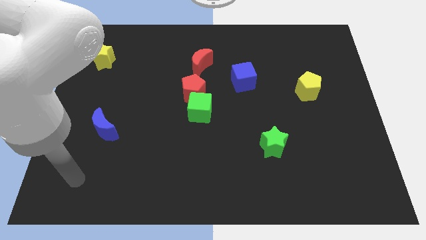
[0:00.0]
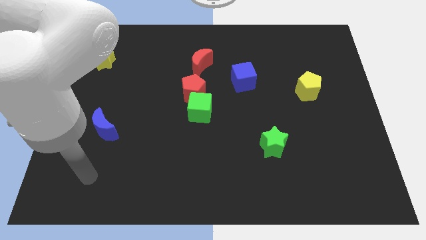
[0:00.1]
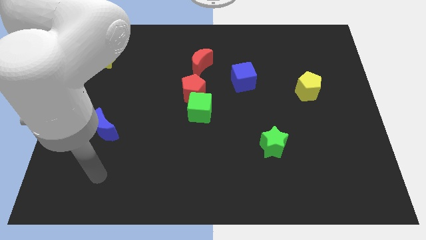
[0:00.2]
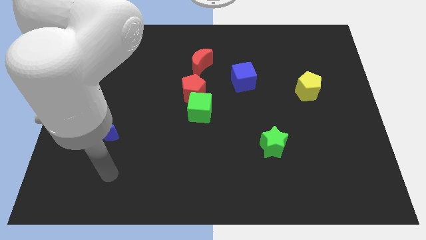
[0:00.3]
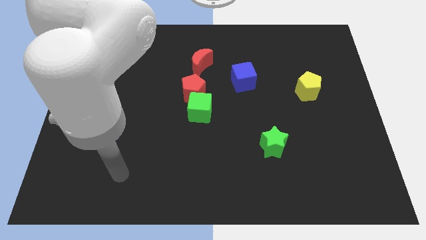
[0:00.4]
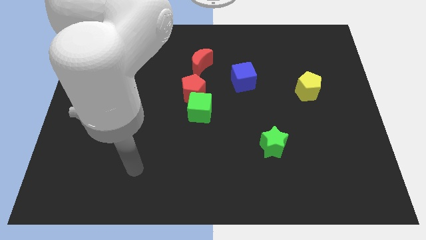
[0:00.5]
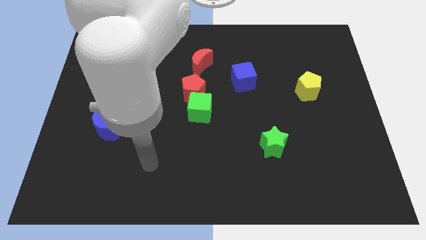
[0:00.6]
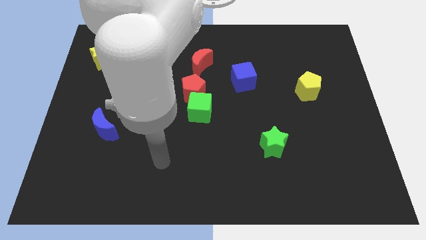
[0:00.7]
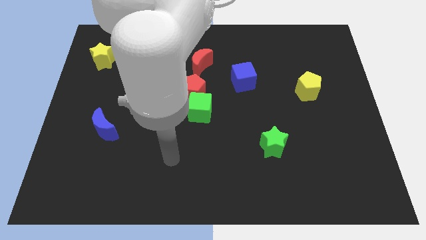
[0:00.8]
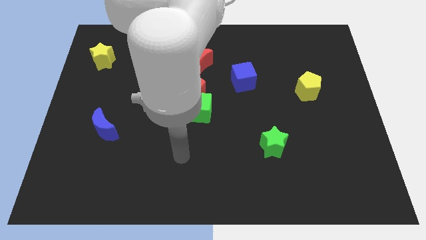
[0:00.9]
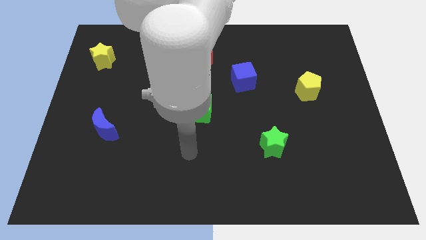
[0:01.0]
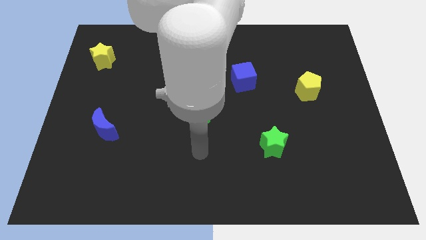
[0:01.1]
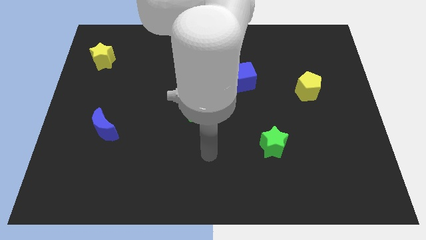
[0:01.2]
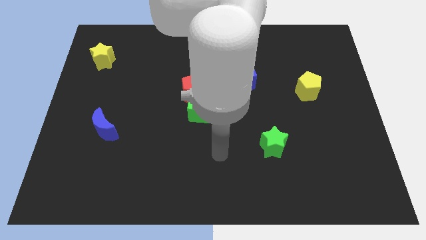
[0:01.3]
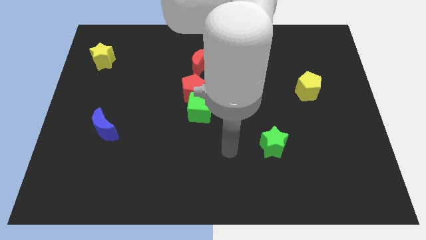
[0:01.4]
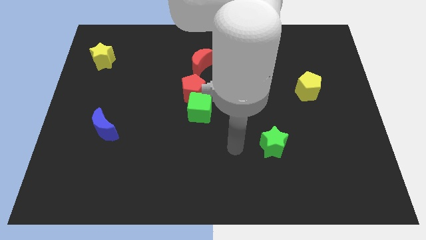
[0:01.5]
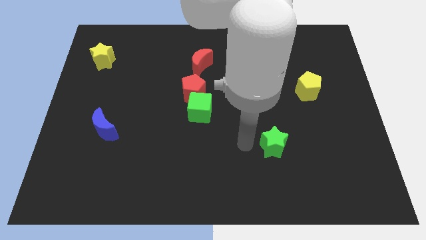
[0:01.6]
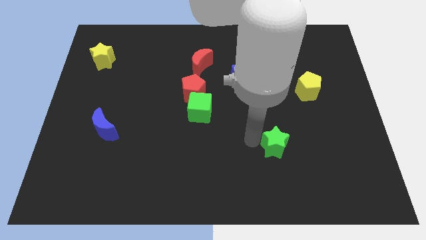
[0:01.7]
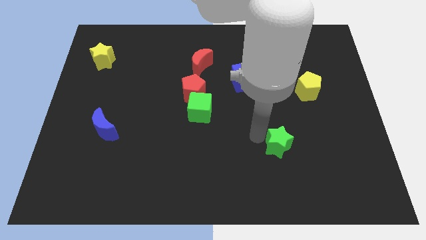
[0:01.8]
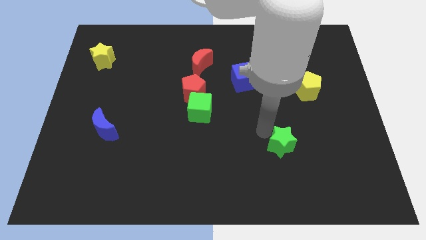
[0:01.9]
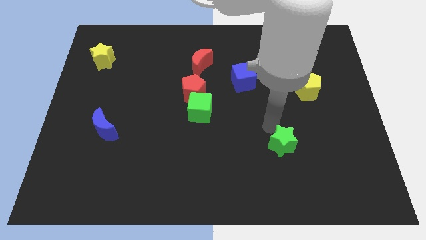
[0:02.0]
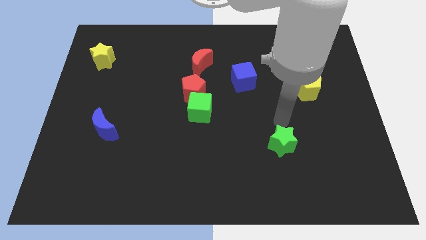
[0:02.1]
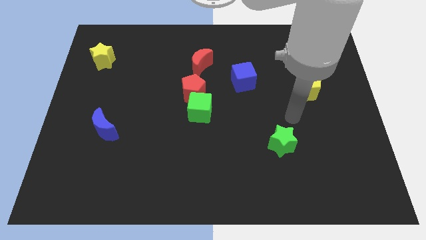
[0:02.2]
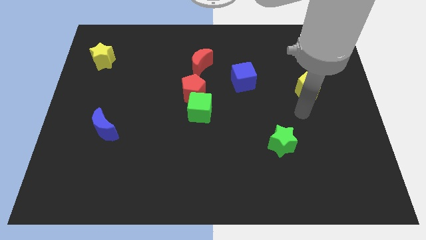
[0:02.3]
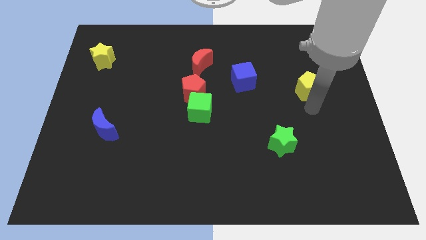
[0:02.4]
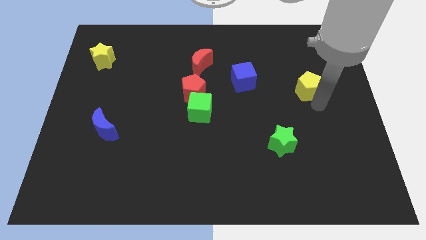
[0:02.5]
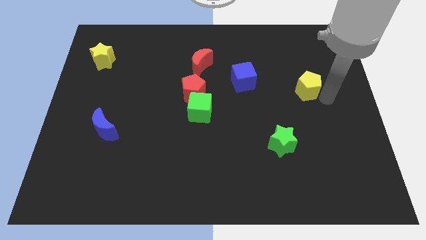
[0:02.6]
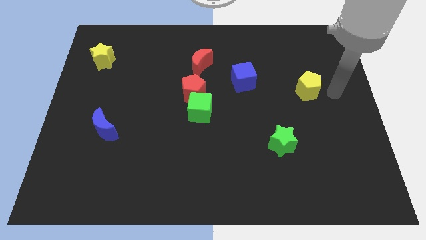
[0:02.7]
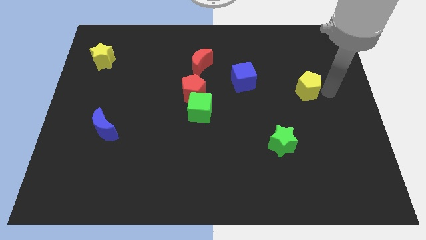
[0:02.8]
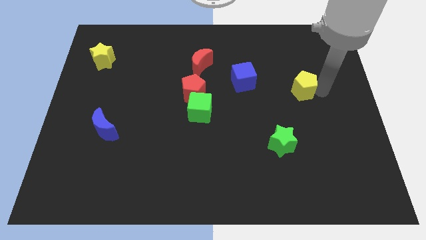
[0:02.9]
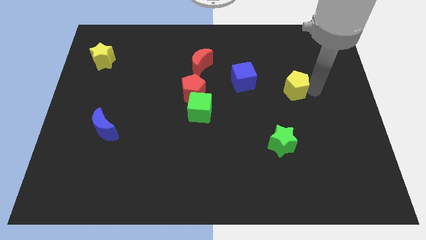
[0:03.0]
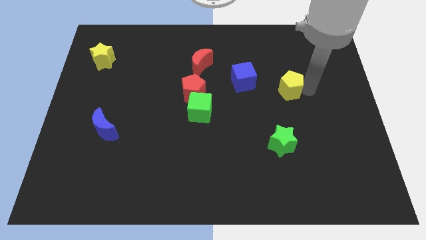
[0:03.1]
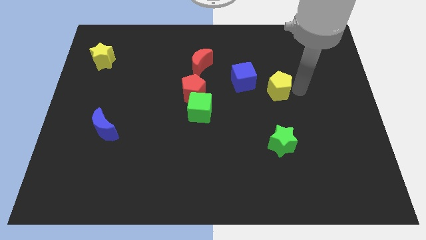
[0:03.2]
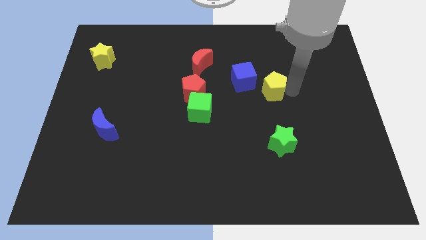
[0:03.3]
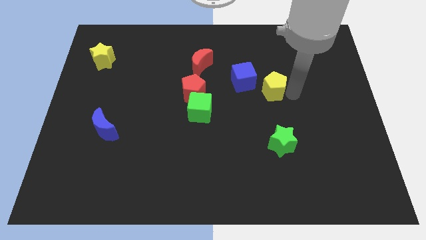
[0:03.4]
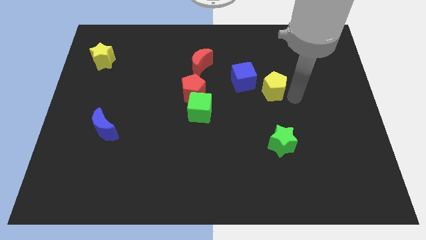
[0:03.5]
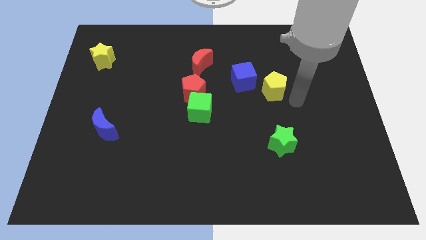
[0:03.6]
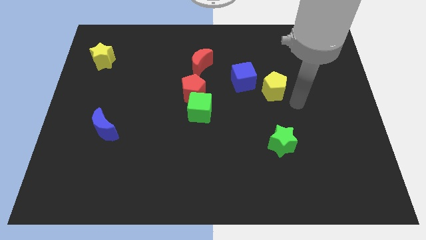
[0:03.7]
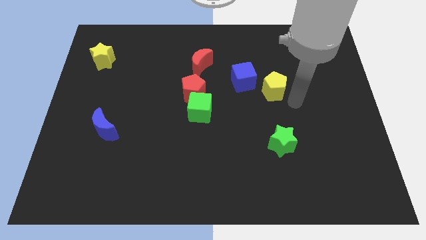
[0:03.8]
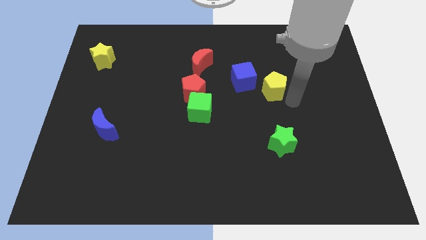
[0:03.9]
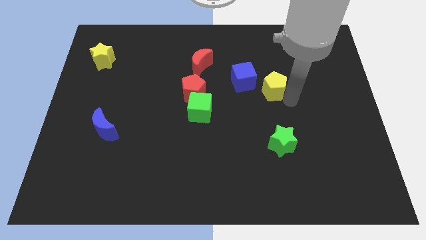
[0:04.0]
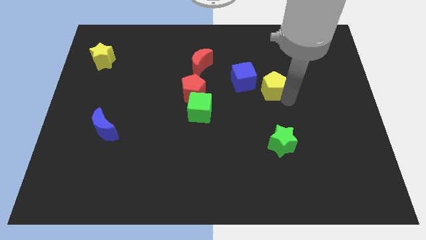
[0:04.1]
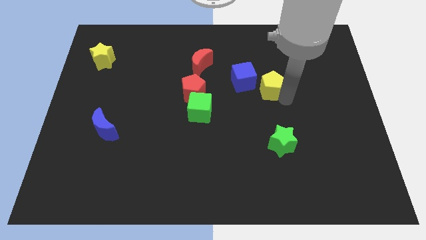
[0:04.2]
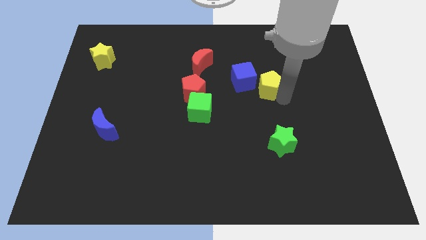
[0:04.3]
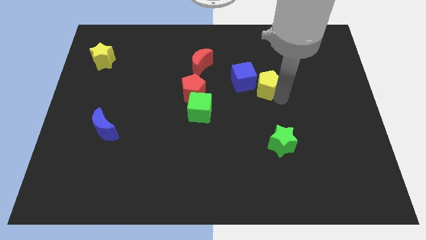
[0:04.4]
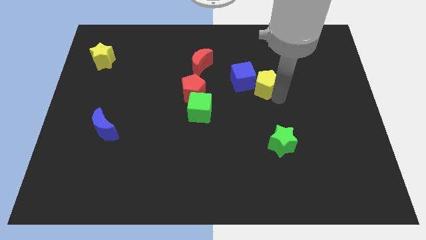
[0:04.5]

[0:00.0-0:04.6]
put the yellow pentagon to the blue cube

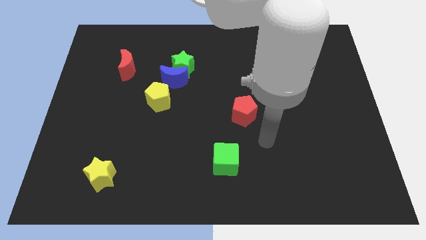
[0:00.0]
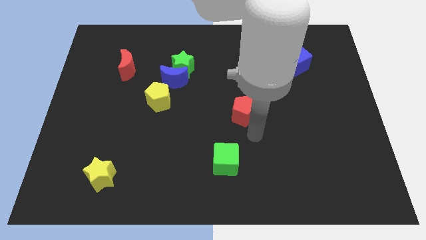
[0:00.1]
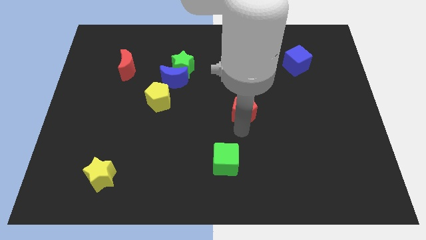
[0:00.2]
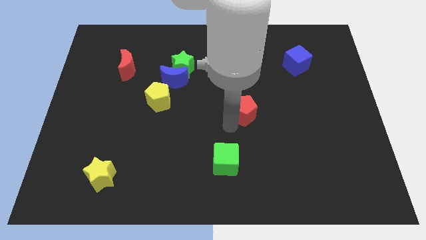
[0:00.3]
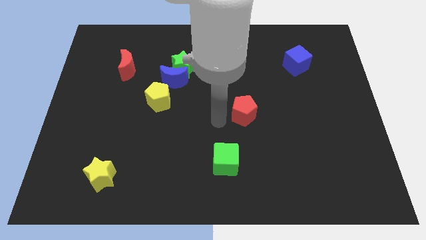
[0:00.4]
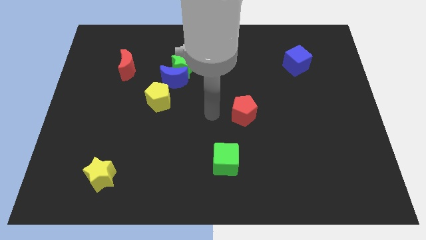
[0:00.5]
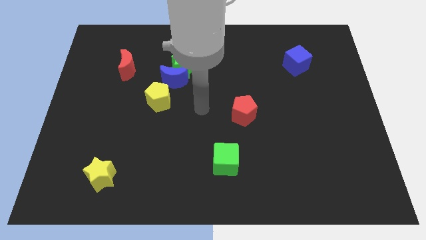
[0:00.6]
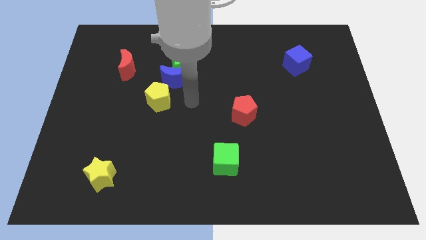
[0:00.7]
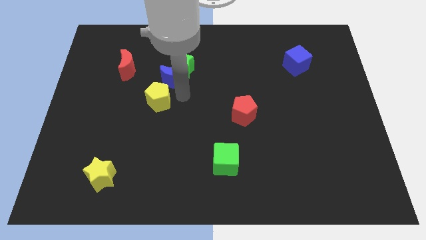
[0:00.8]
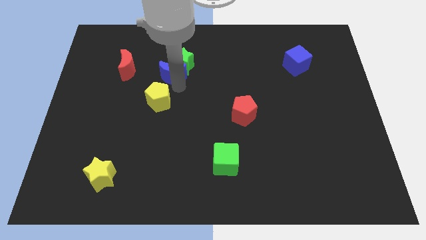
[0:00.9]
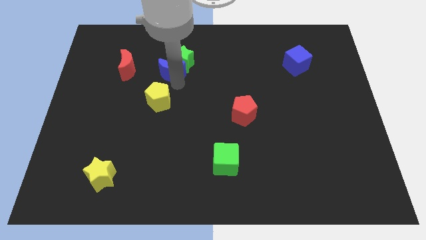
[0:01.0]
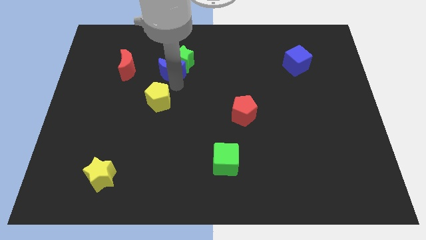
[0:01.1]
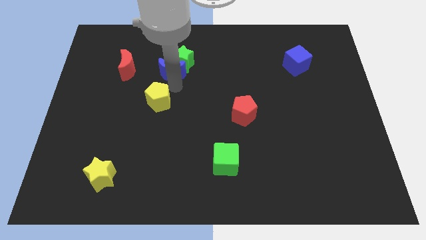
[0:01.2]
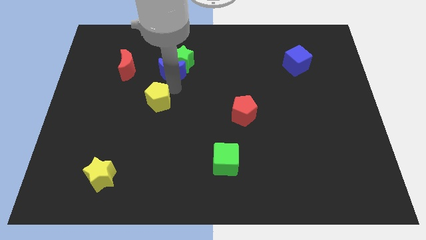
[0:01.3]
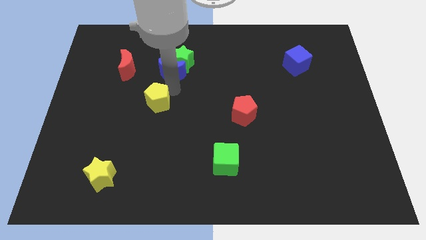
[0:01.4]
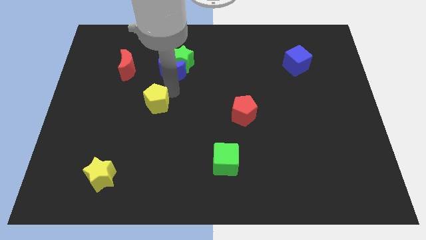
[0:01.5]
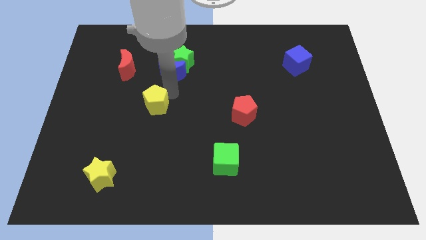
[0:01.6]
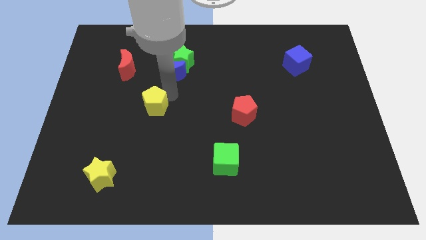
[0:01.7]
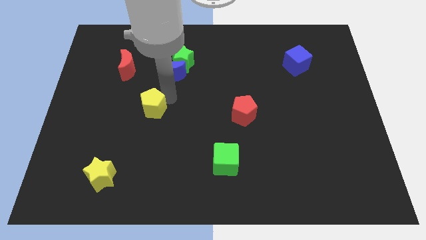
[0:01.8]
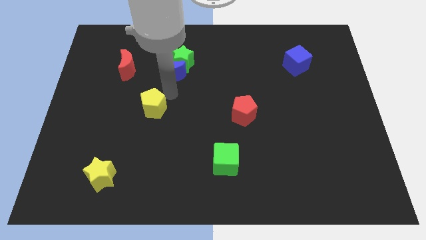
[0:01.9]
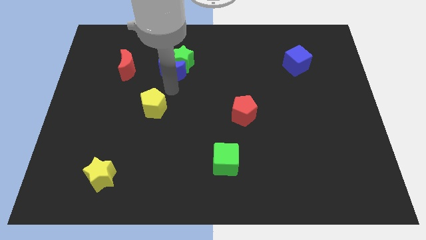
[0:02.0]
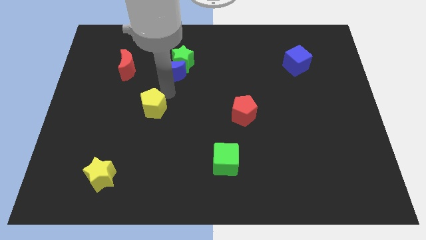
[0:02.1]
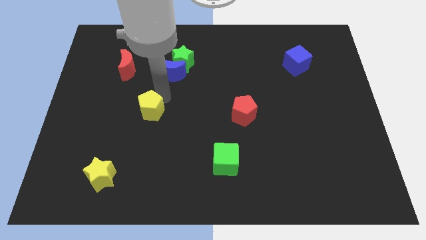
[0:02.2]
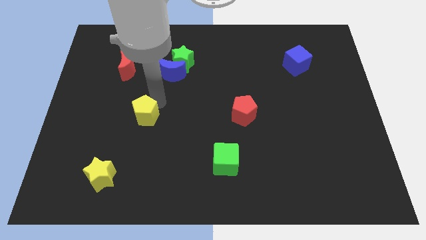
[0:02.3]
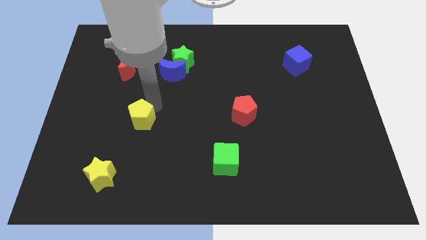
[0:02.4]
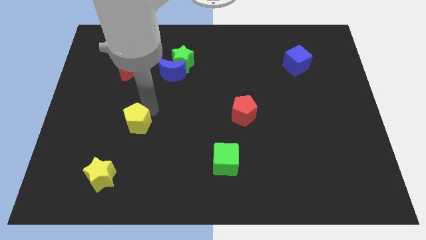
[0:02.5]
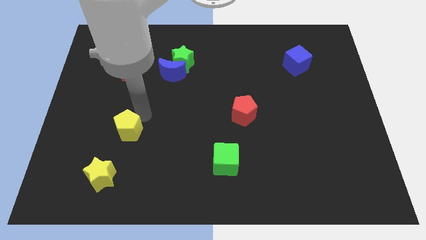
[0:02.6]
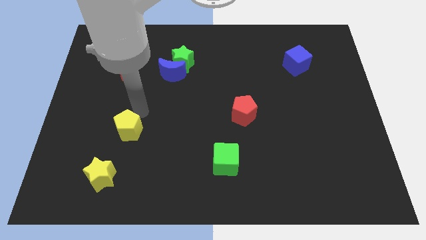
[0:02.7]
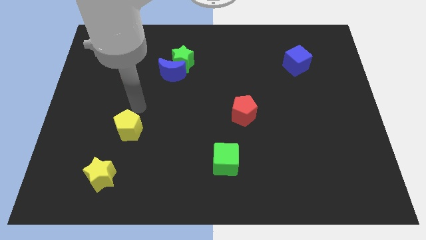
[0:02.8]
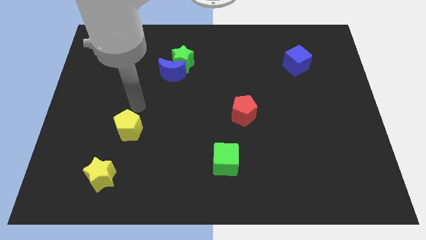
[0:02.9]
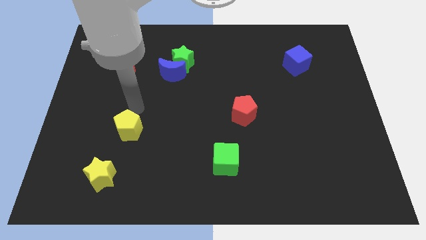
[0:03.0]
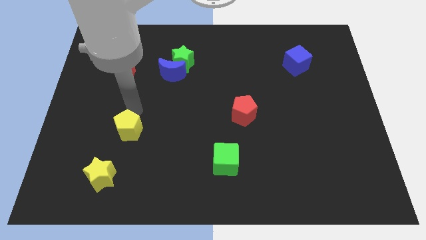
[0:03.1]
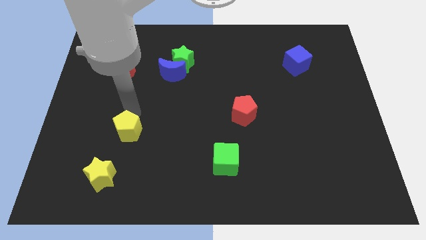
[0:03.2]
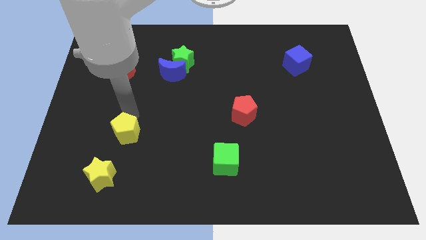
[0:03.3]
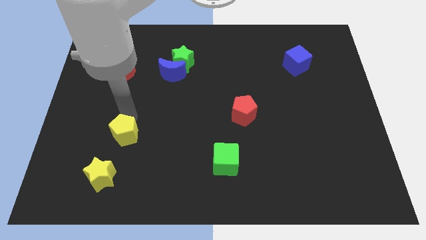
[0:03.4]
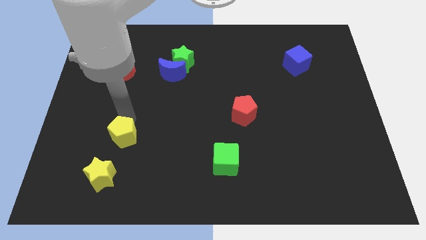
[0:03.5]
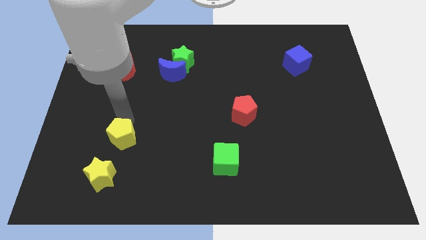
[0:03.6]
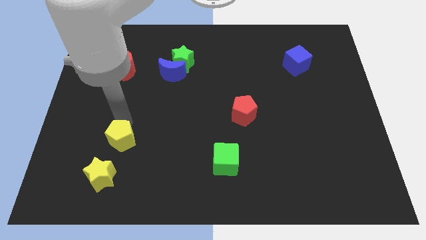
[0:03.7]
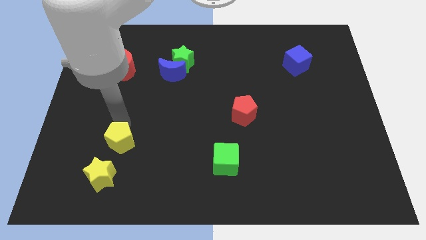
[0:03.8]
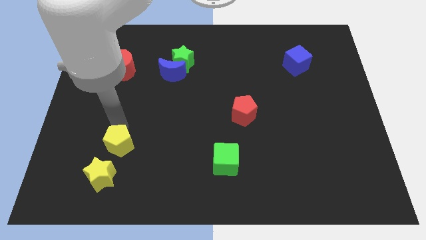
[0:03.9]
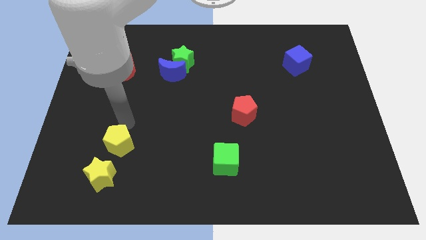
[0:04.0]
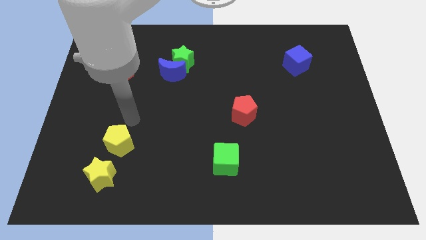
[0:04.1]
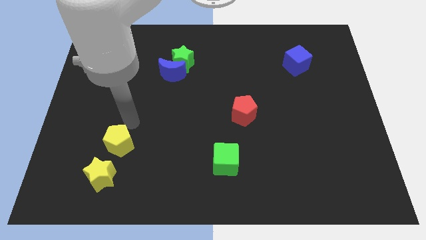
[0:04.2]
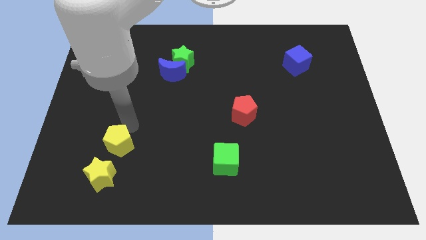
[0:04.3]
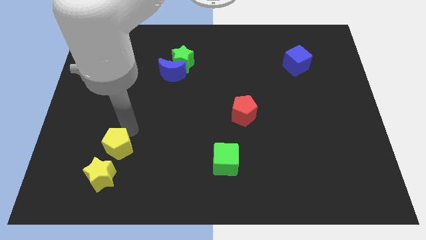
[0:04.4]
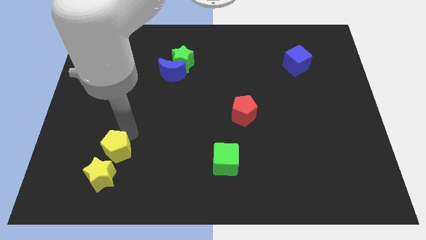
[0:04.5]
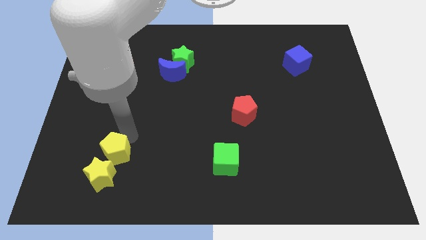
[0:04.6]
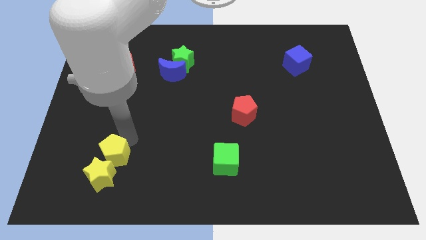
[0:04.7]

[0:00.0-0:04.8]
move the yellow pentagon close to the yellow star
